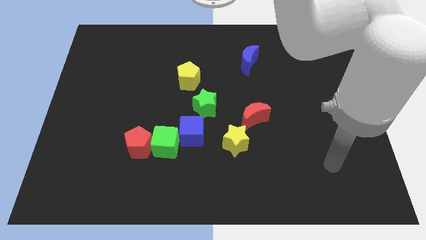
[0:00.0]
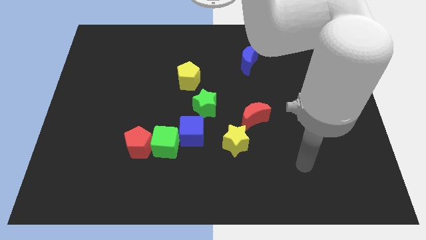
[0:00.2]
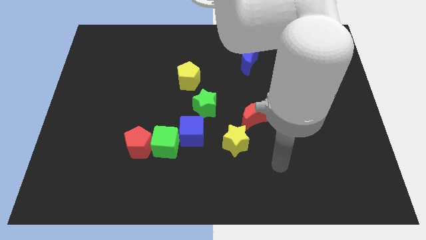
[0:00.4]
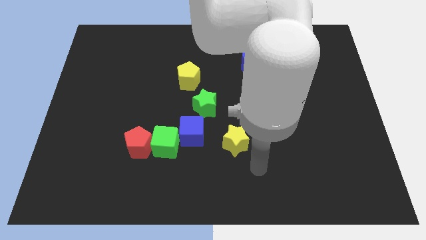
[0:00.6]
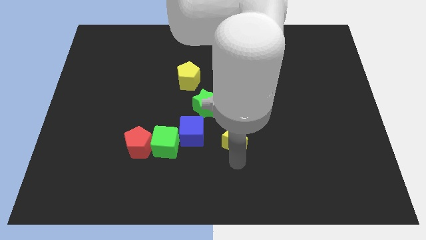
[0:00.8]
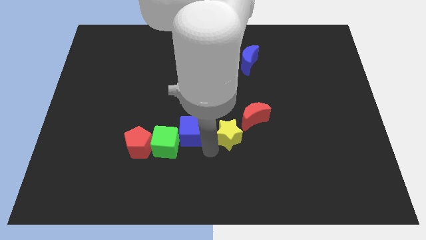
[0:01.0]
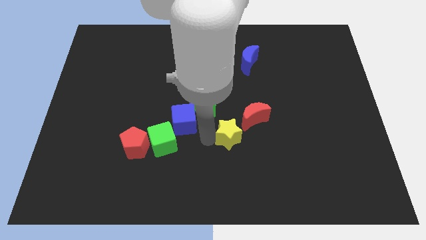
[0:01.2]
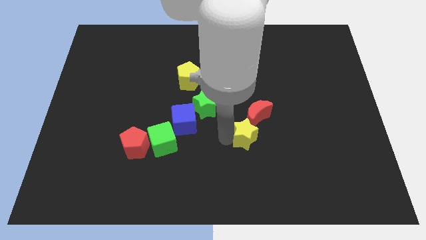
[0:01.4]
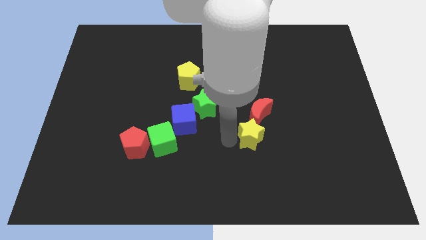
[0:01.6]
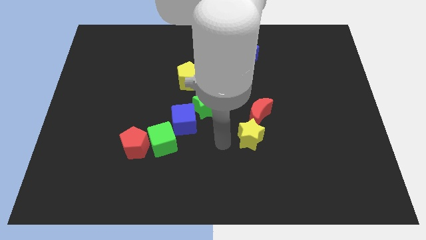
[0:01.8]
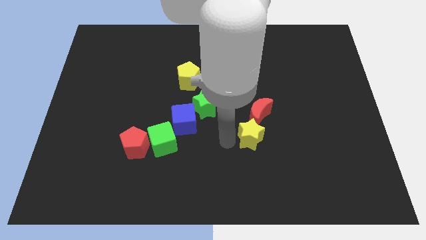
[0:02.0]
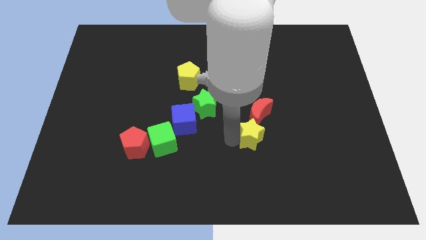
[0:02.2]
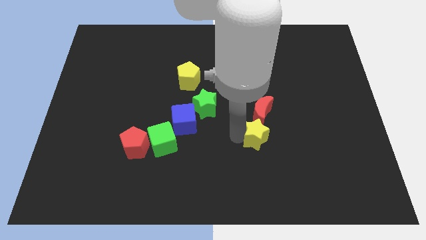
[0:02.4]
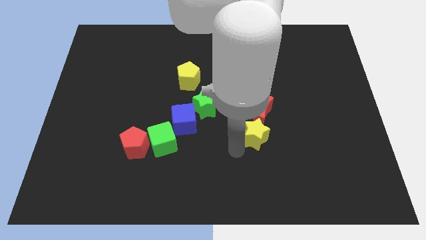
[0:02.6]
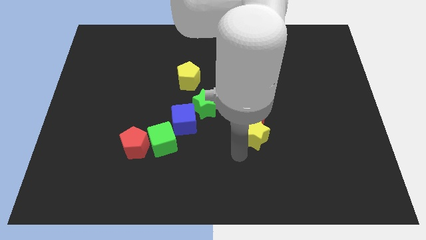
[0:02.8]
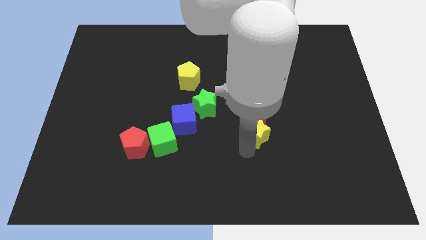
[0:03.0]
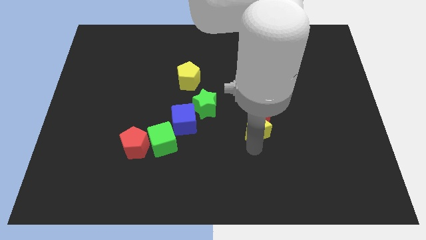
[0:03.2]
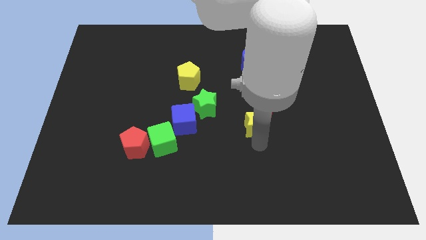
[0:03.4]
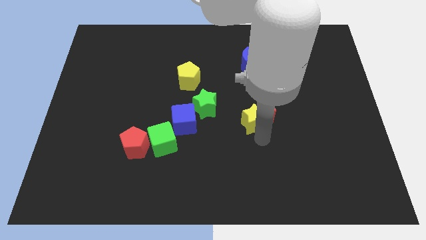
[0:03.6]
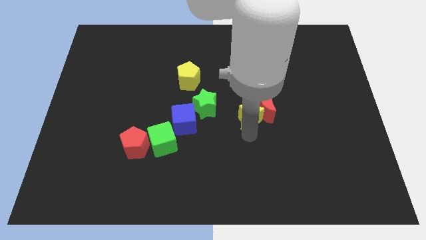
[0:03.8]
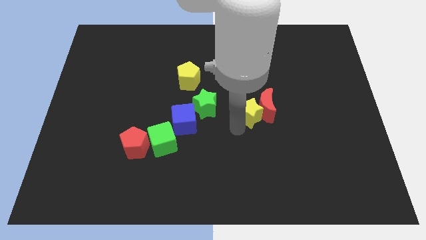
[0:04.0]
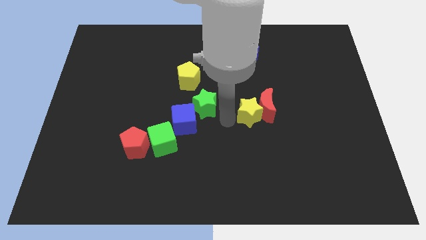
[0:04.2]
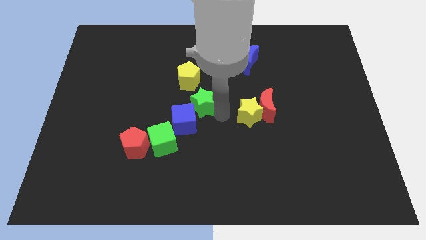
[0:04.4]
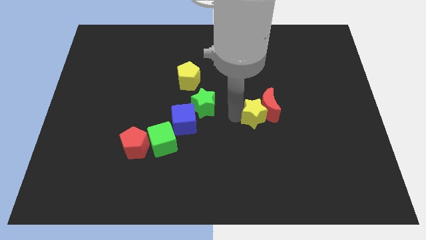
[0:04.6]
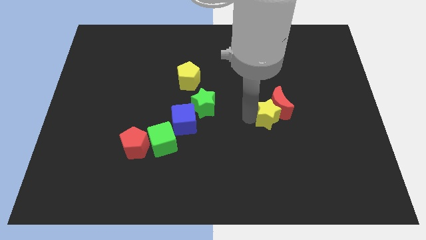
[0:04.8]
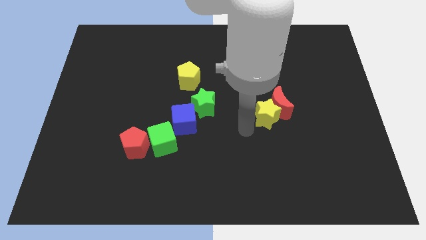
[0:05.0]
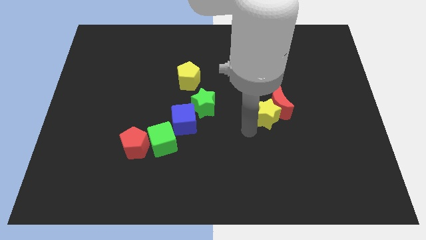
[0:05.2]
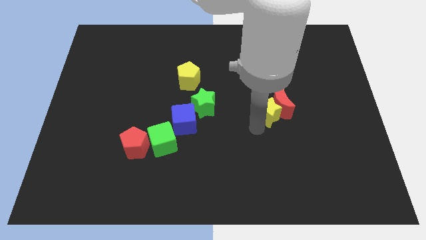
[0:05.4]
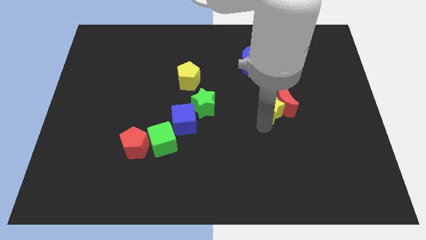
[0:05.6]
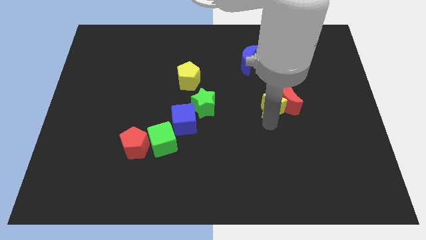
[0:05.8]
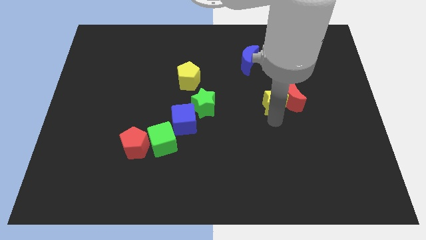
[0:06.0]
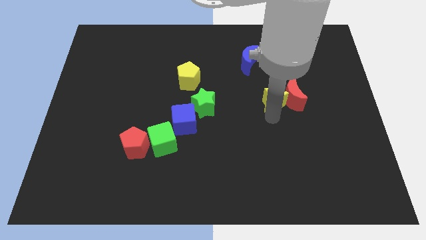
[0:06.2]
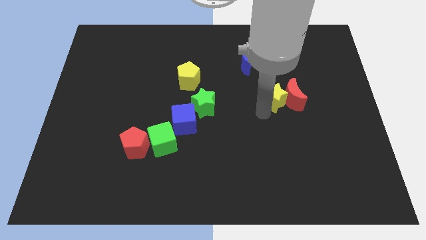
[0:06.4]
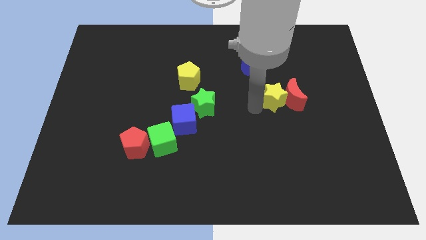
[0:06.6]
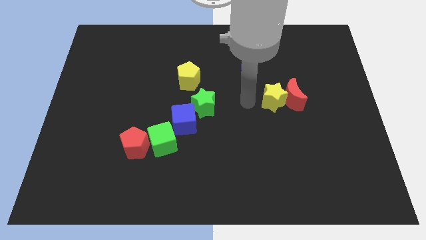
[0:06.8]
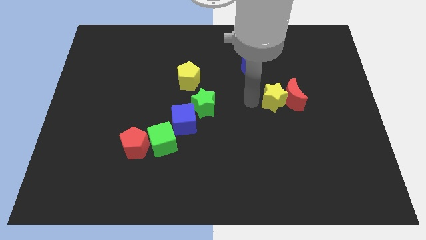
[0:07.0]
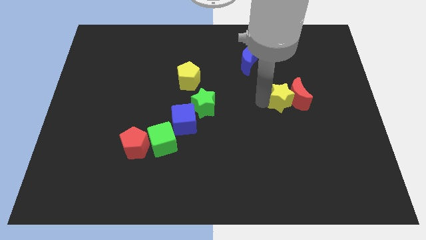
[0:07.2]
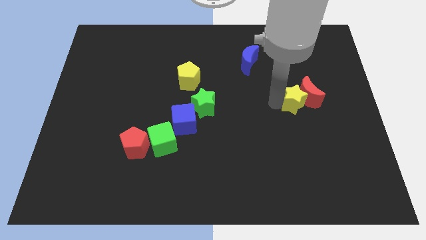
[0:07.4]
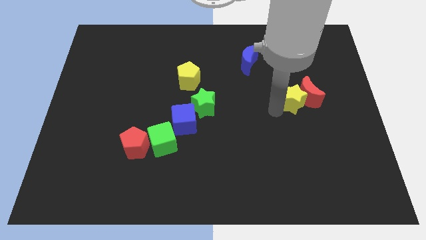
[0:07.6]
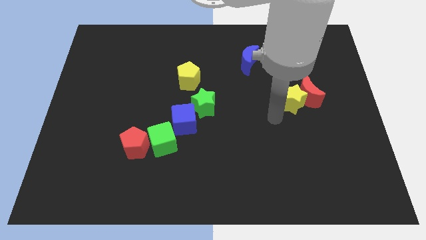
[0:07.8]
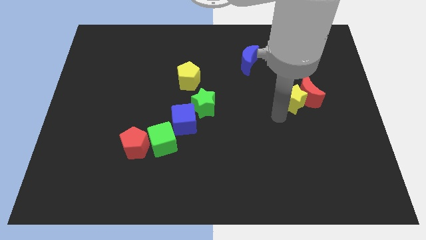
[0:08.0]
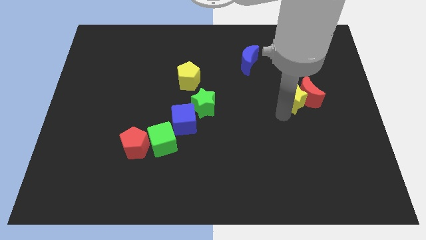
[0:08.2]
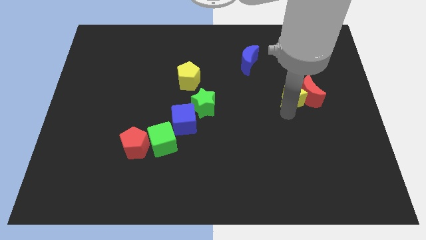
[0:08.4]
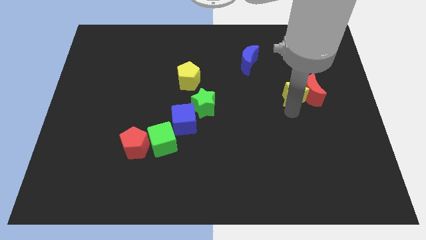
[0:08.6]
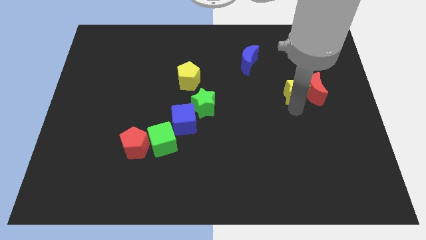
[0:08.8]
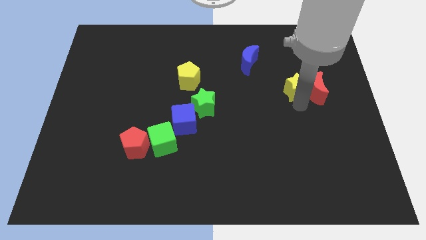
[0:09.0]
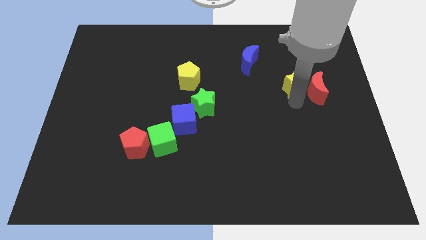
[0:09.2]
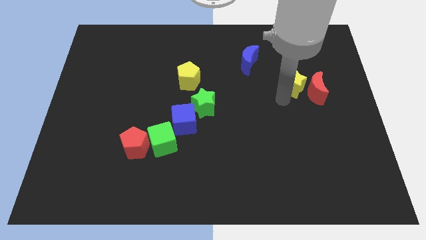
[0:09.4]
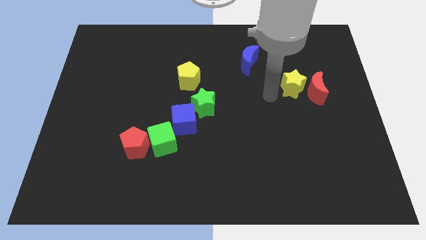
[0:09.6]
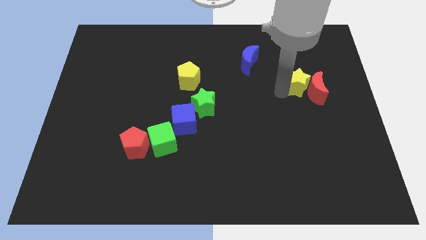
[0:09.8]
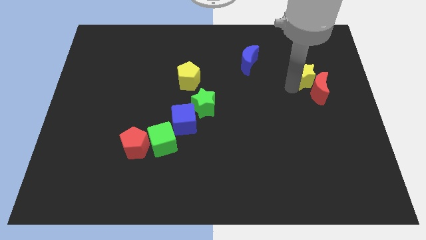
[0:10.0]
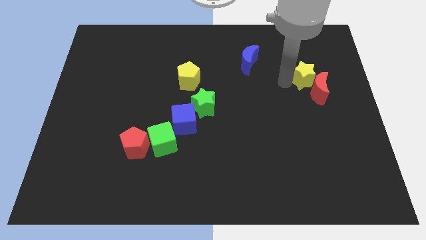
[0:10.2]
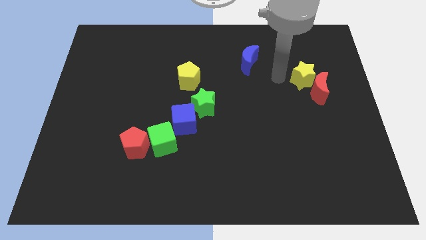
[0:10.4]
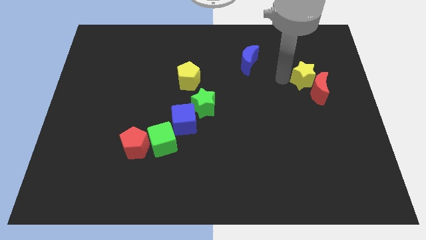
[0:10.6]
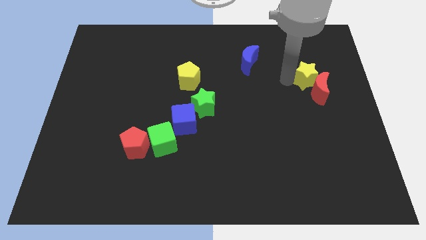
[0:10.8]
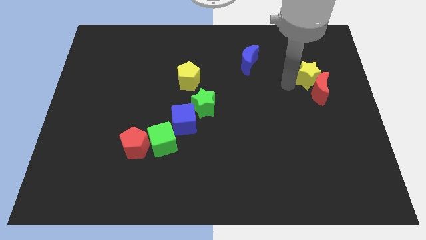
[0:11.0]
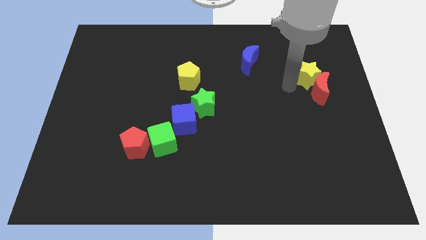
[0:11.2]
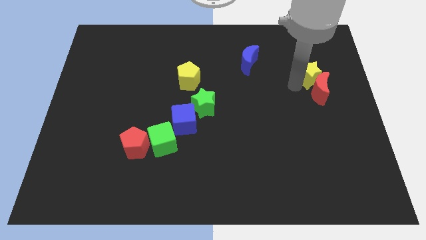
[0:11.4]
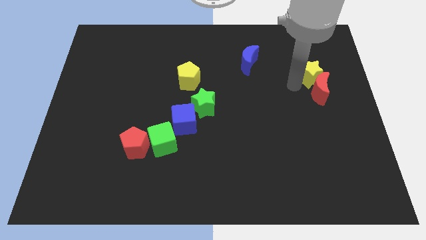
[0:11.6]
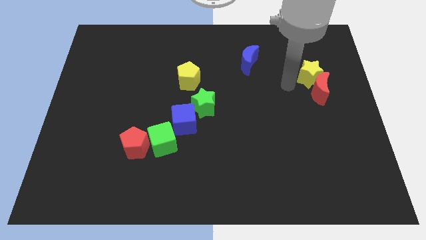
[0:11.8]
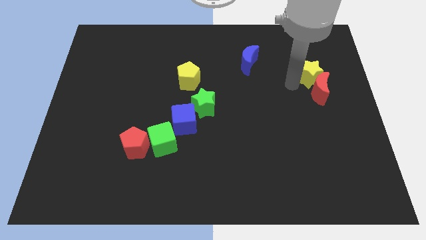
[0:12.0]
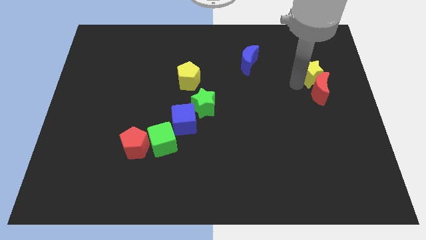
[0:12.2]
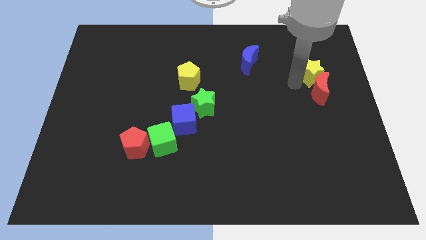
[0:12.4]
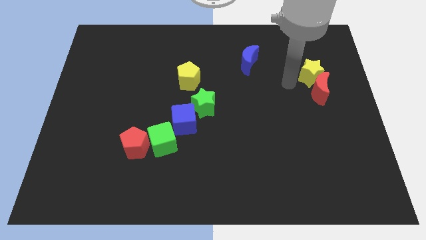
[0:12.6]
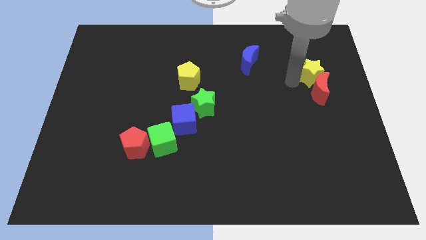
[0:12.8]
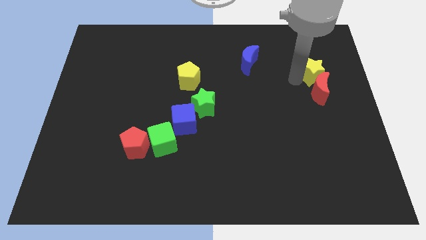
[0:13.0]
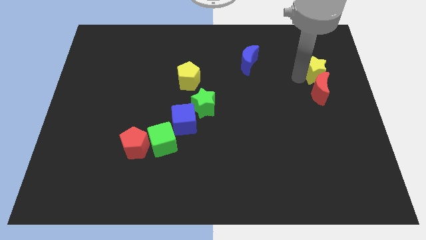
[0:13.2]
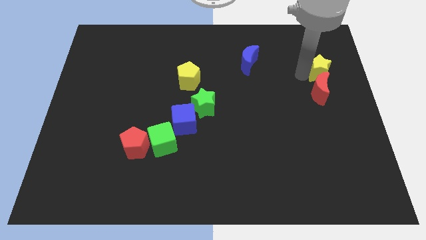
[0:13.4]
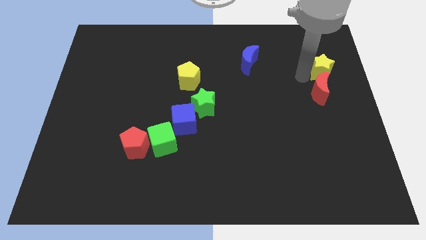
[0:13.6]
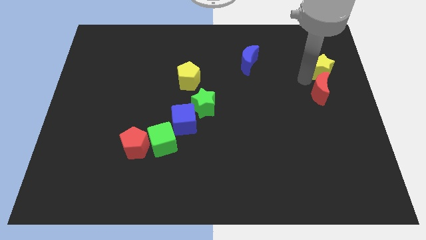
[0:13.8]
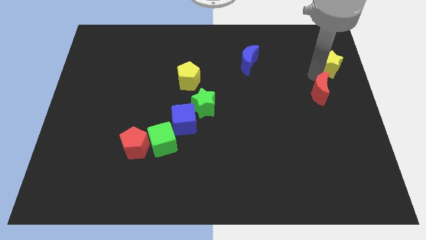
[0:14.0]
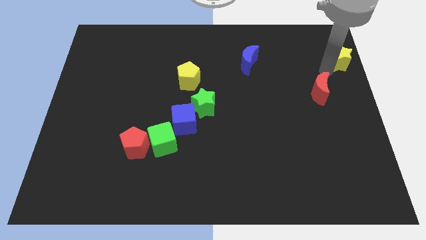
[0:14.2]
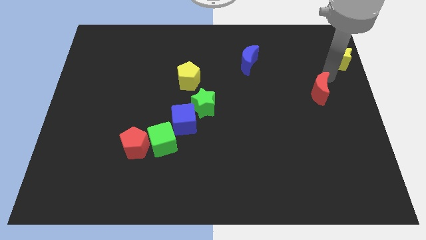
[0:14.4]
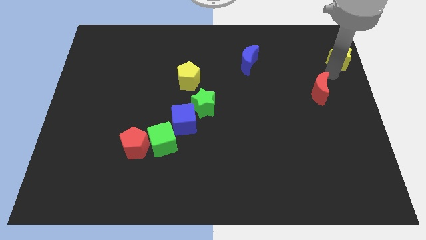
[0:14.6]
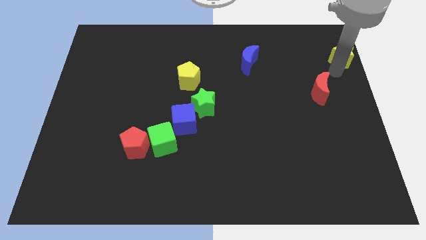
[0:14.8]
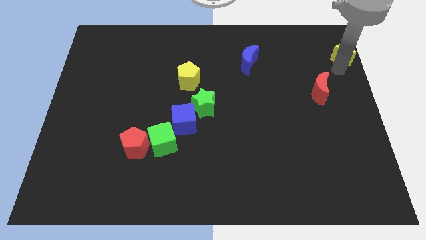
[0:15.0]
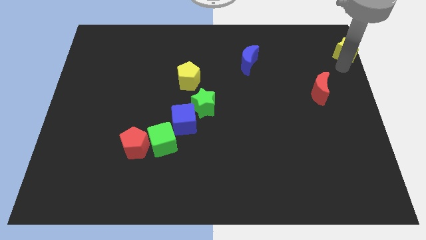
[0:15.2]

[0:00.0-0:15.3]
push the yellow star to the top right
